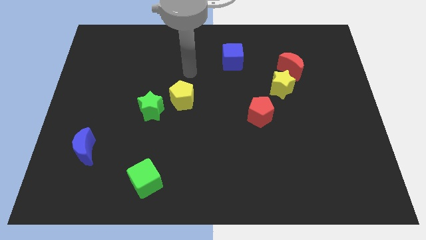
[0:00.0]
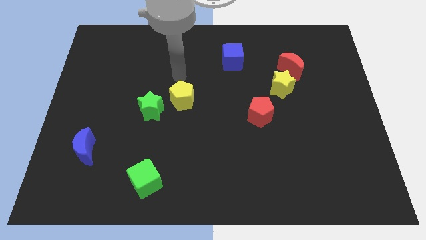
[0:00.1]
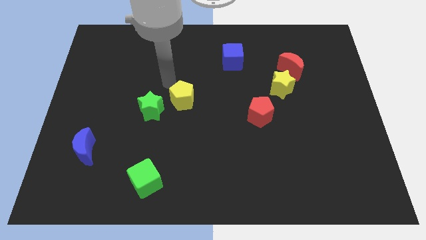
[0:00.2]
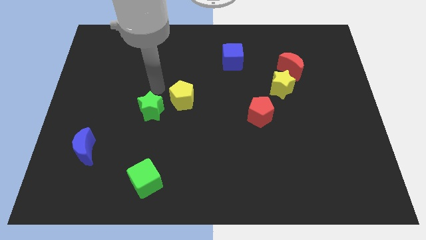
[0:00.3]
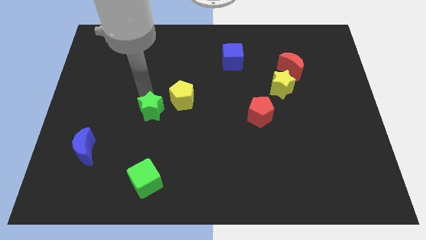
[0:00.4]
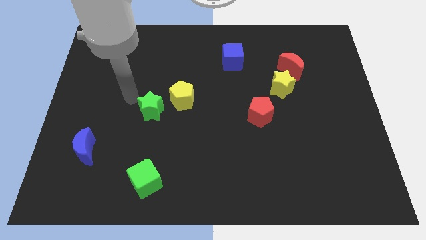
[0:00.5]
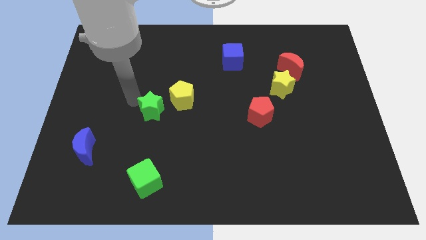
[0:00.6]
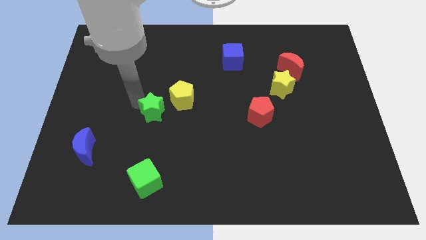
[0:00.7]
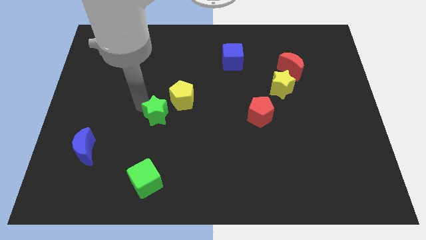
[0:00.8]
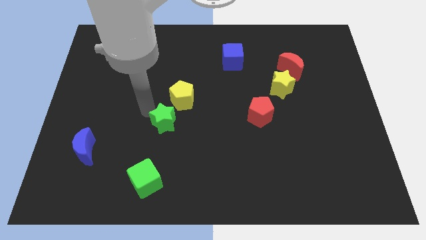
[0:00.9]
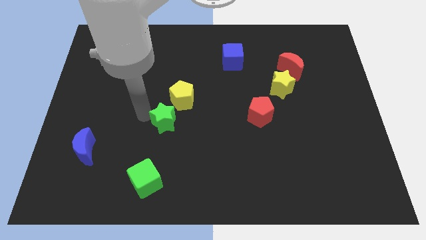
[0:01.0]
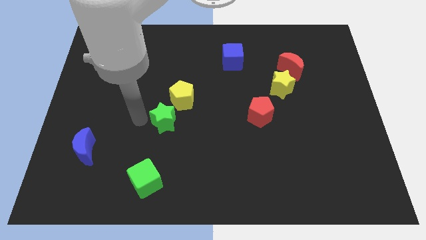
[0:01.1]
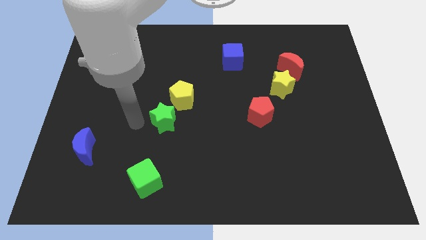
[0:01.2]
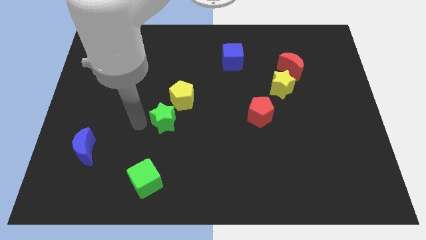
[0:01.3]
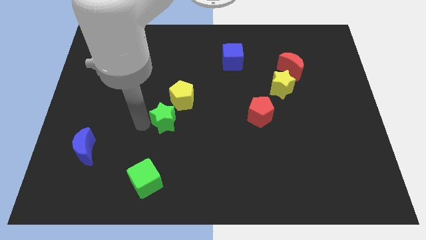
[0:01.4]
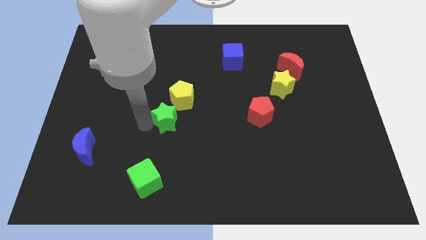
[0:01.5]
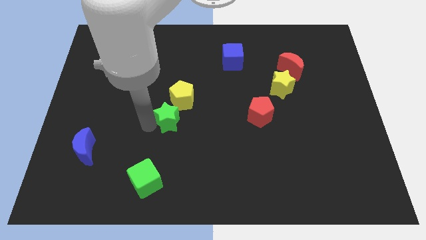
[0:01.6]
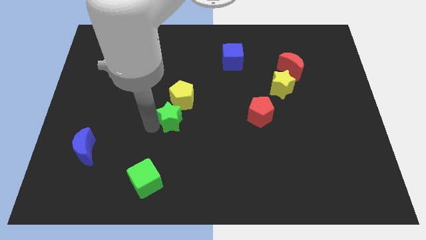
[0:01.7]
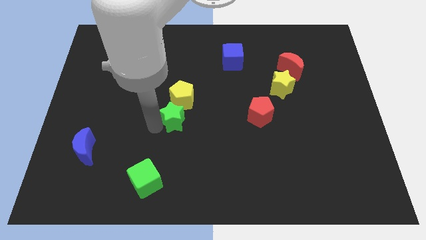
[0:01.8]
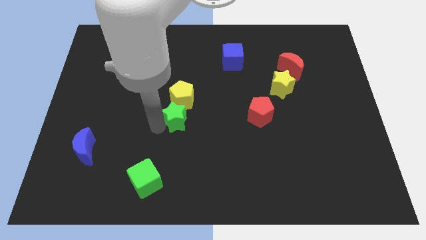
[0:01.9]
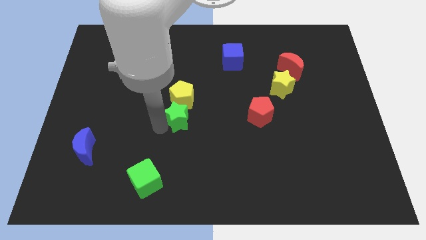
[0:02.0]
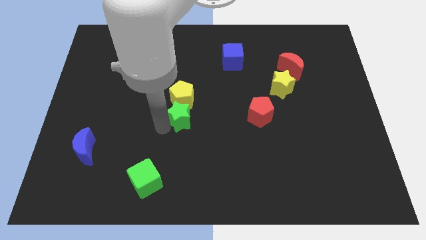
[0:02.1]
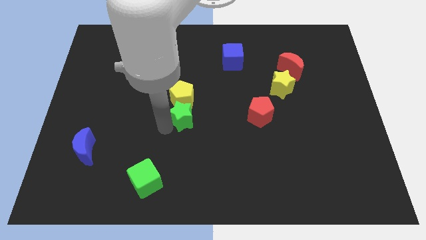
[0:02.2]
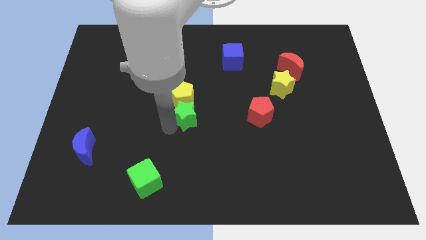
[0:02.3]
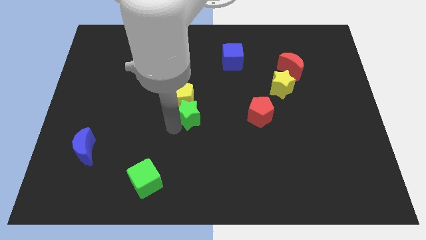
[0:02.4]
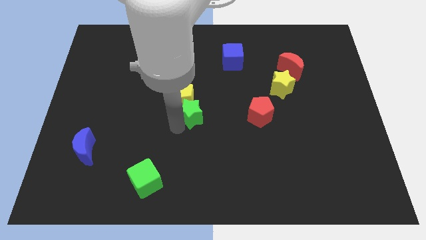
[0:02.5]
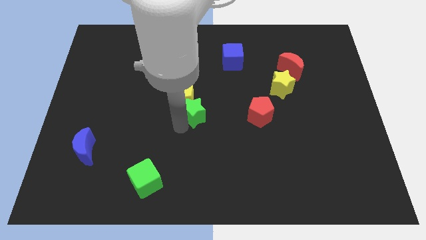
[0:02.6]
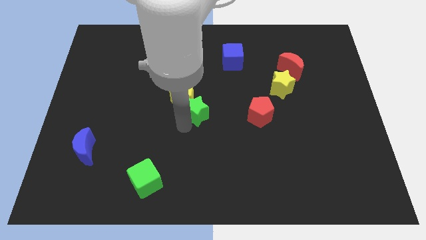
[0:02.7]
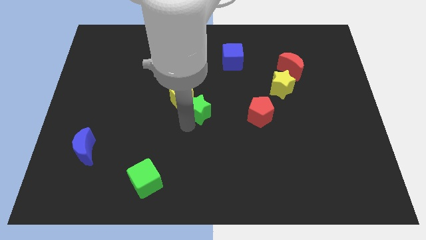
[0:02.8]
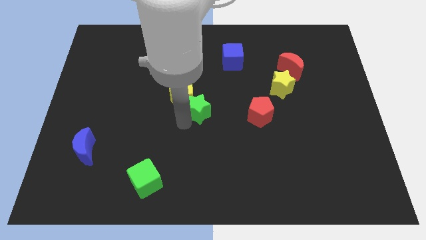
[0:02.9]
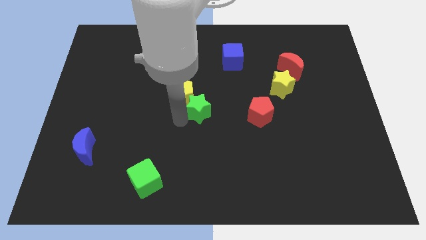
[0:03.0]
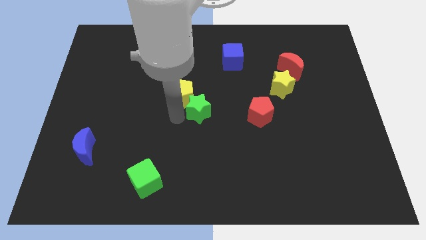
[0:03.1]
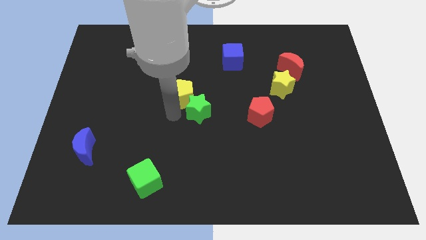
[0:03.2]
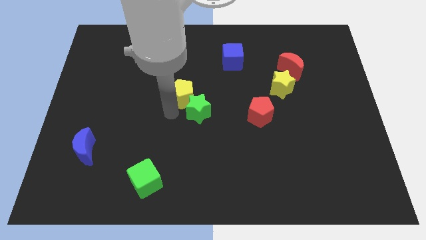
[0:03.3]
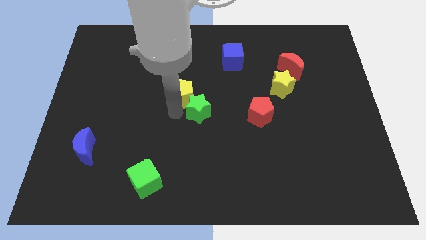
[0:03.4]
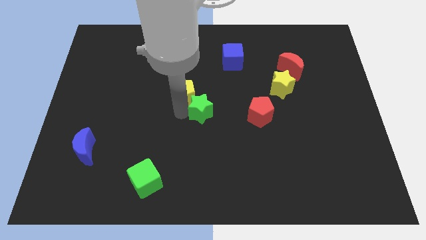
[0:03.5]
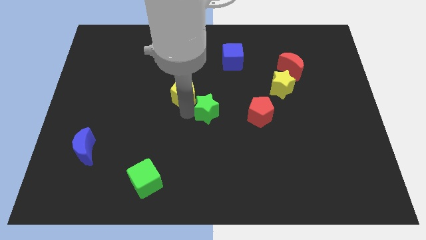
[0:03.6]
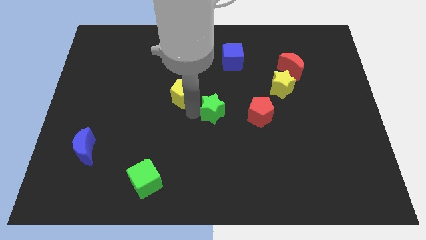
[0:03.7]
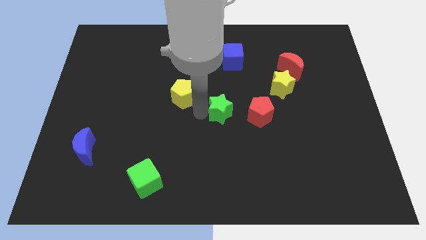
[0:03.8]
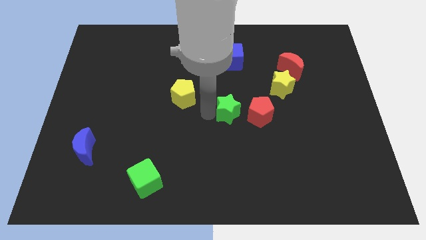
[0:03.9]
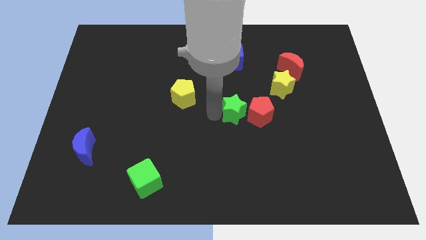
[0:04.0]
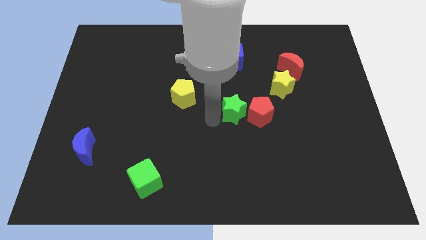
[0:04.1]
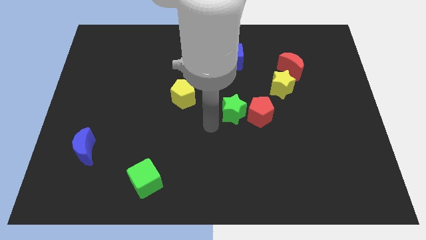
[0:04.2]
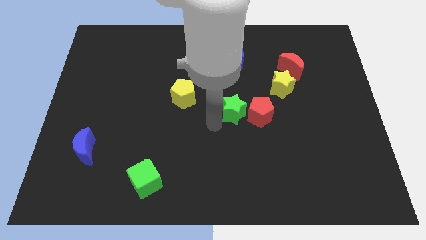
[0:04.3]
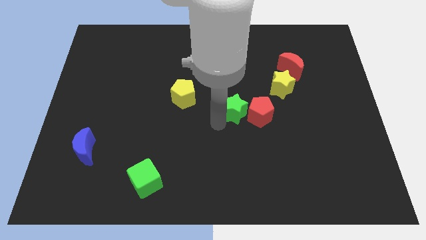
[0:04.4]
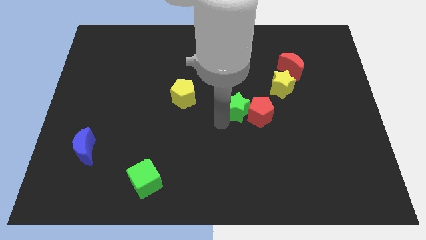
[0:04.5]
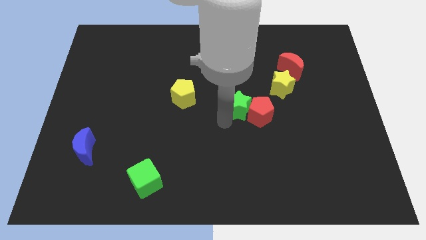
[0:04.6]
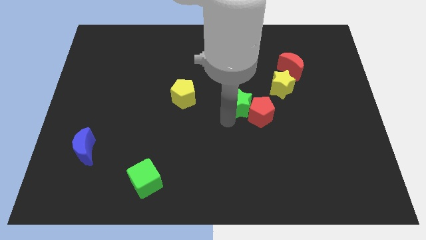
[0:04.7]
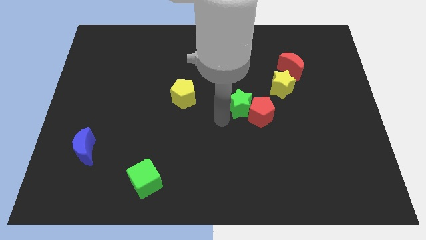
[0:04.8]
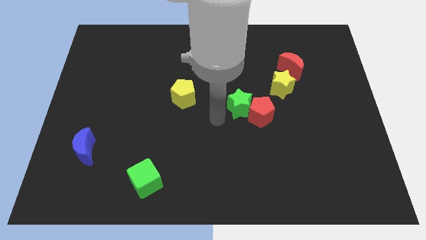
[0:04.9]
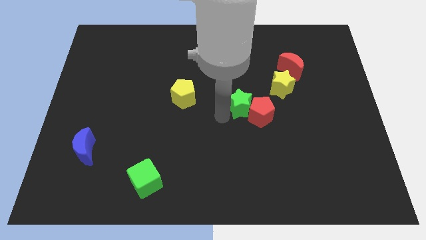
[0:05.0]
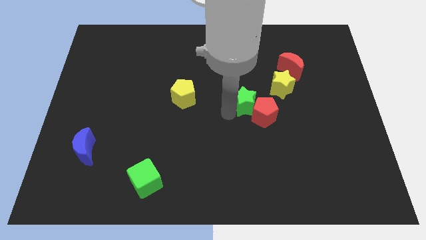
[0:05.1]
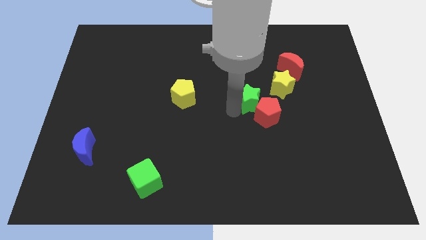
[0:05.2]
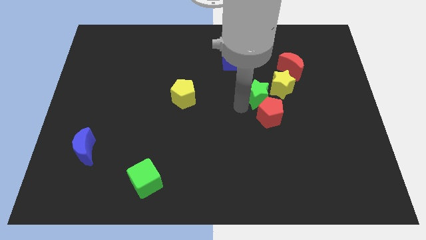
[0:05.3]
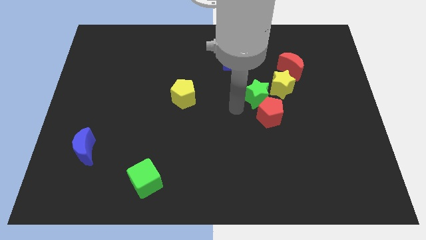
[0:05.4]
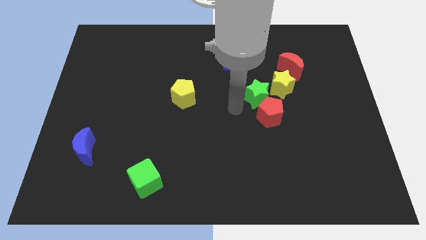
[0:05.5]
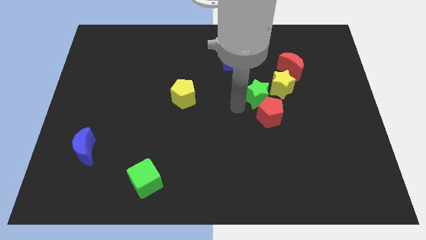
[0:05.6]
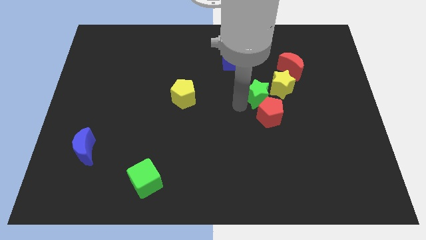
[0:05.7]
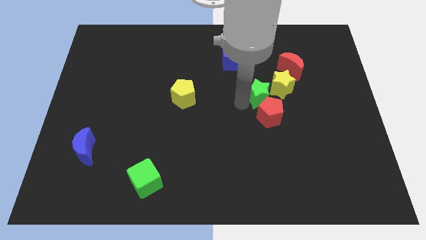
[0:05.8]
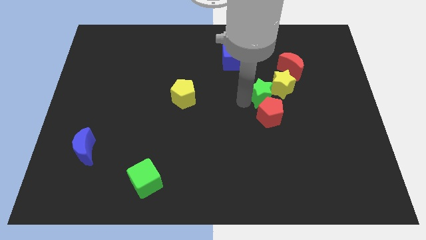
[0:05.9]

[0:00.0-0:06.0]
push the green star next to the yellow star
